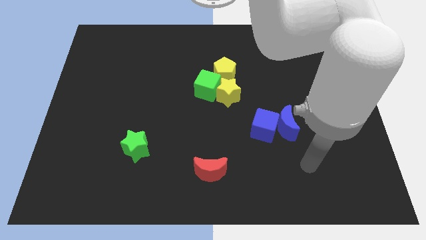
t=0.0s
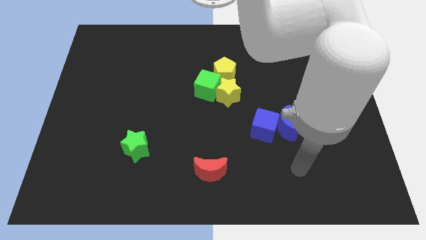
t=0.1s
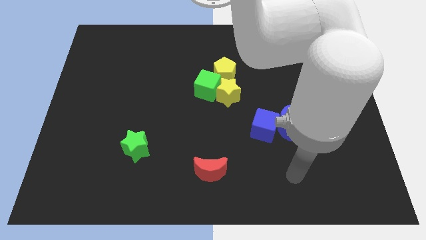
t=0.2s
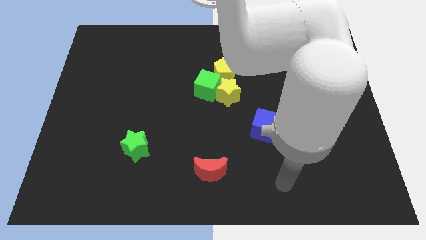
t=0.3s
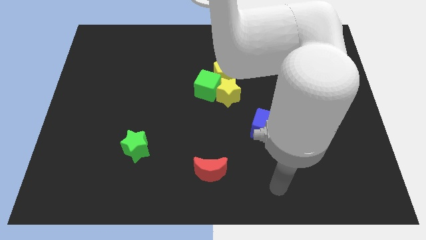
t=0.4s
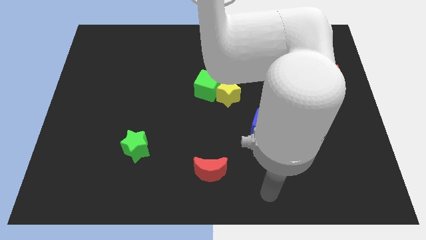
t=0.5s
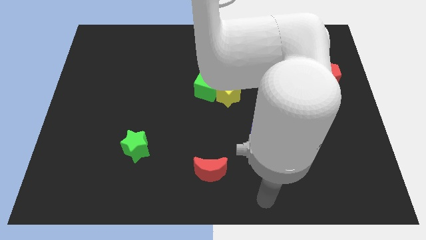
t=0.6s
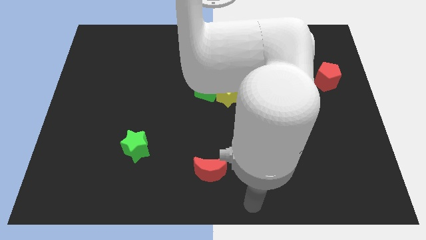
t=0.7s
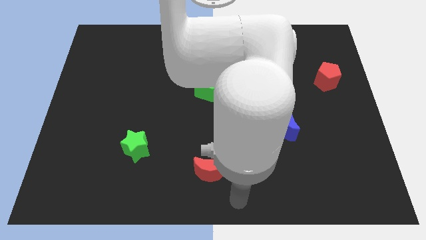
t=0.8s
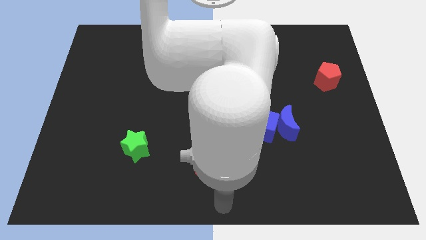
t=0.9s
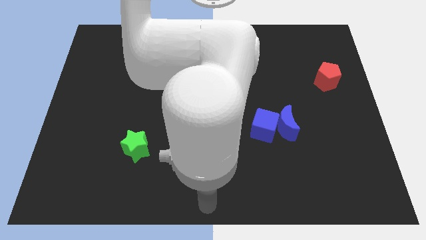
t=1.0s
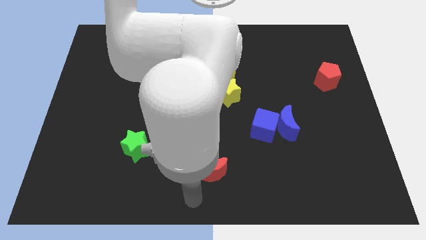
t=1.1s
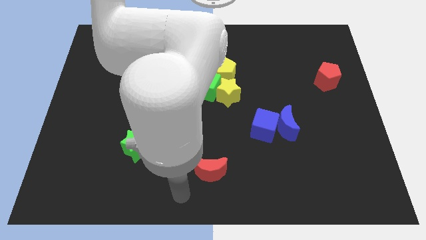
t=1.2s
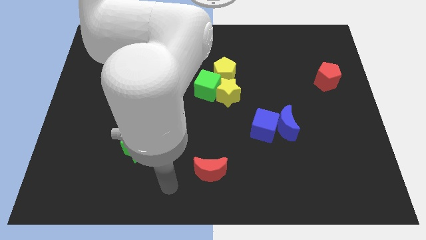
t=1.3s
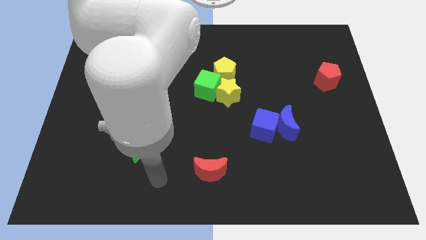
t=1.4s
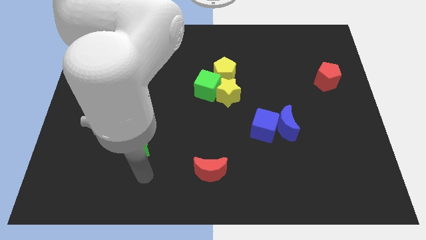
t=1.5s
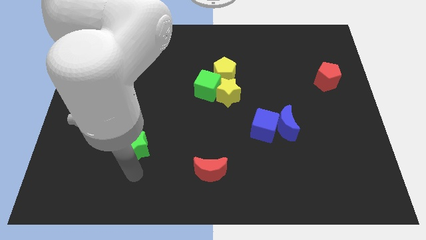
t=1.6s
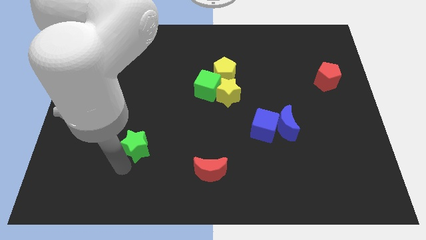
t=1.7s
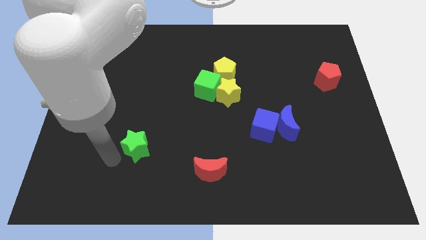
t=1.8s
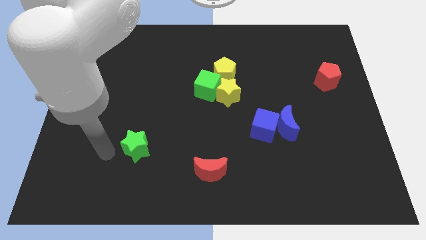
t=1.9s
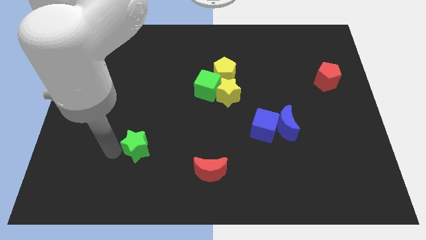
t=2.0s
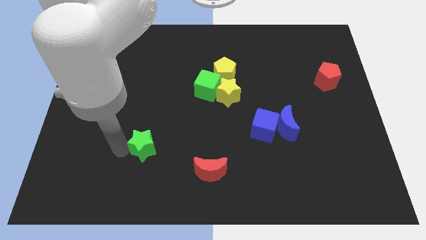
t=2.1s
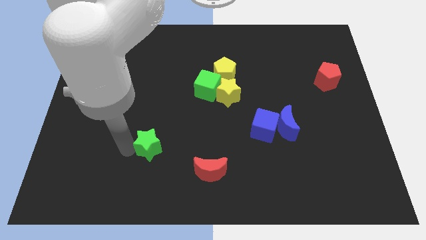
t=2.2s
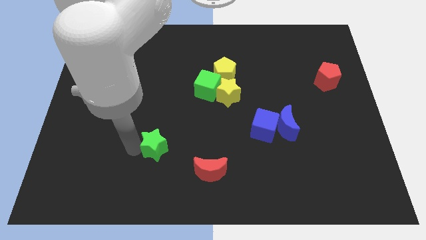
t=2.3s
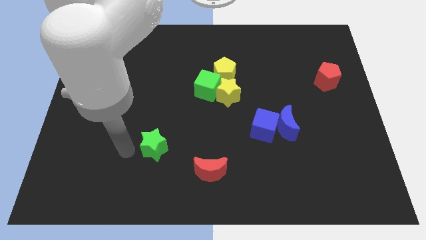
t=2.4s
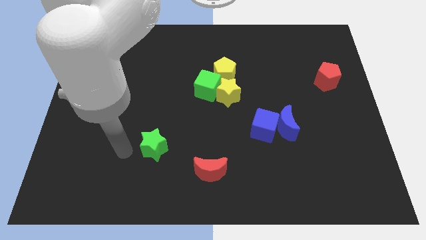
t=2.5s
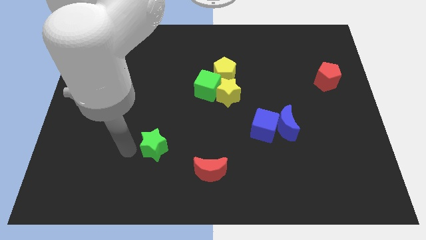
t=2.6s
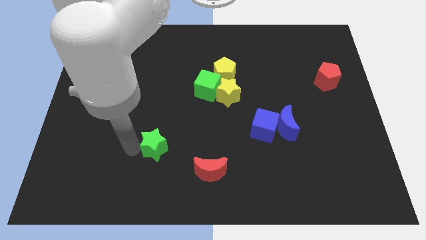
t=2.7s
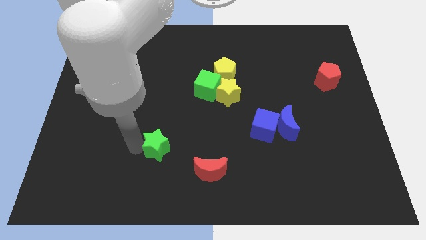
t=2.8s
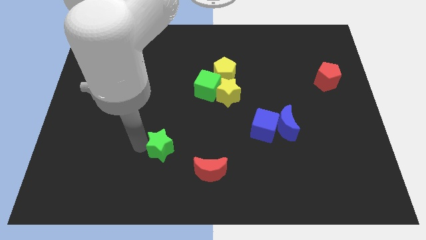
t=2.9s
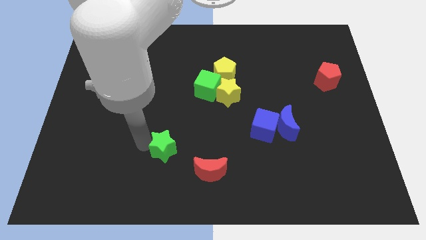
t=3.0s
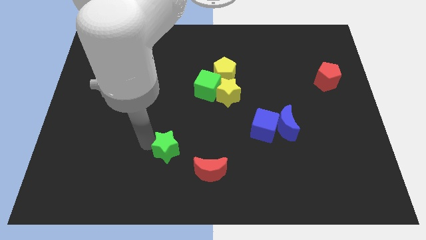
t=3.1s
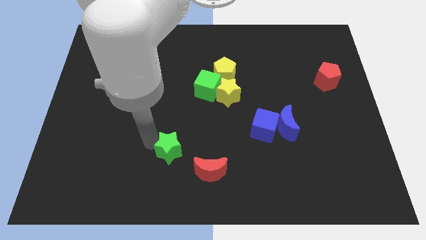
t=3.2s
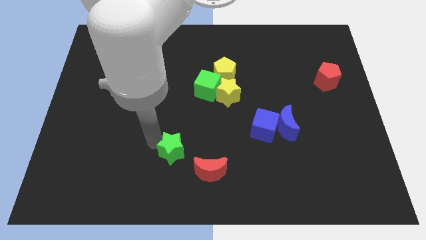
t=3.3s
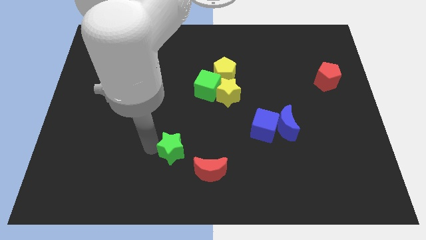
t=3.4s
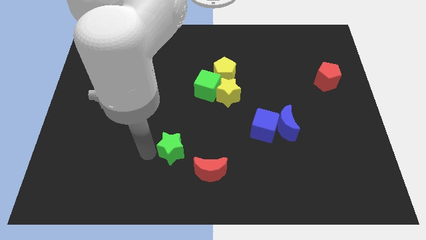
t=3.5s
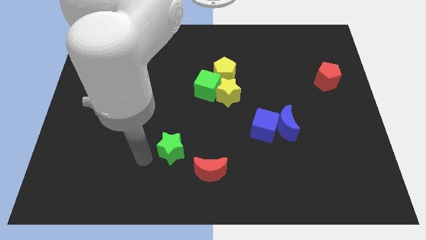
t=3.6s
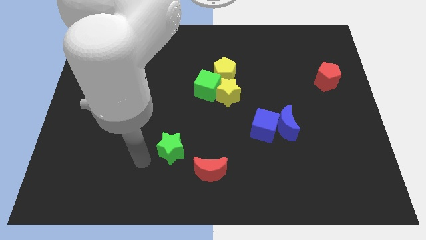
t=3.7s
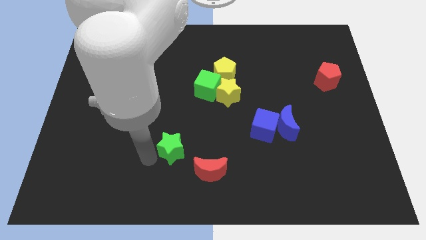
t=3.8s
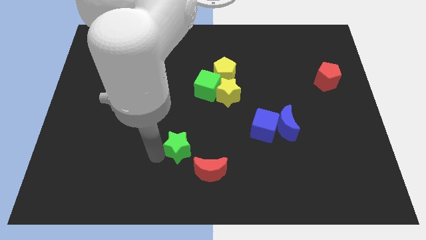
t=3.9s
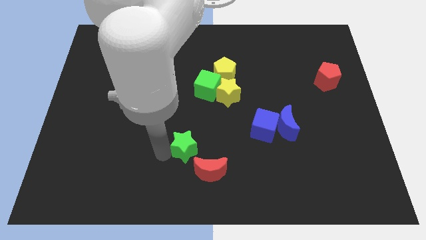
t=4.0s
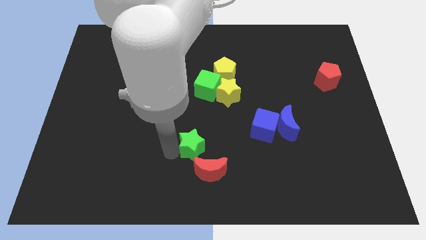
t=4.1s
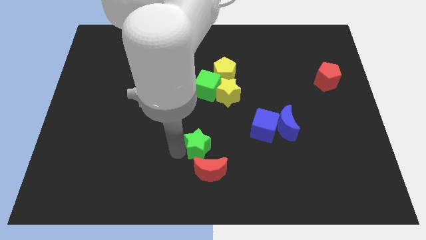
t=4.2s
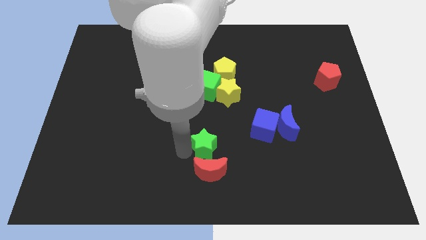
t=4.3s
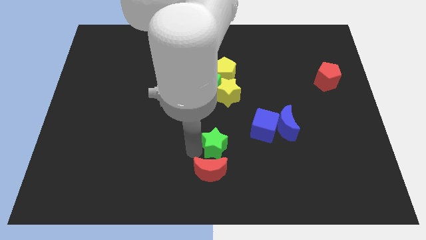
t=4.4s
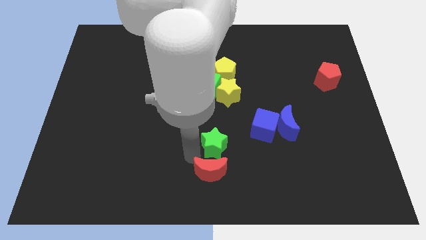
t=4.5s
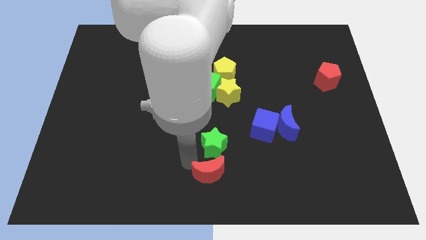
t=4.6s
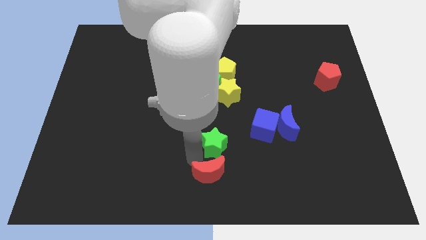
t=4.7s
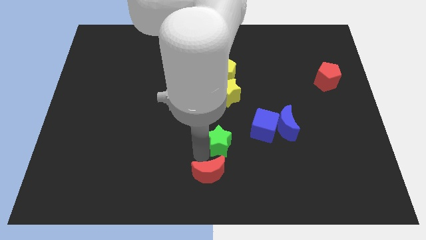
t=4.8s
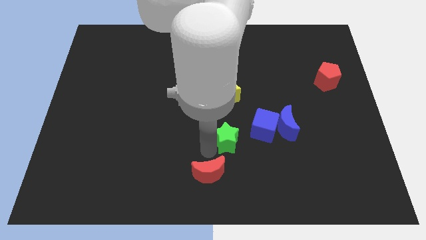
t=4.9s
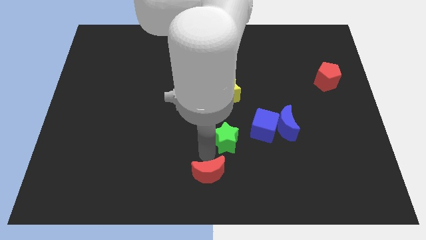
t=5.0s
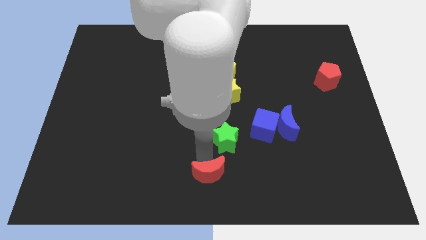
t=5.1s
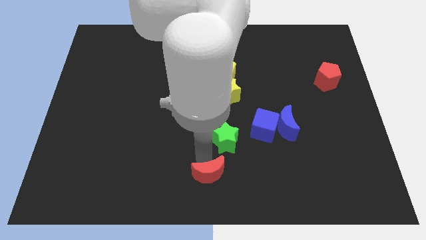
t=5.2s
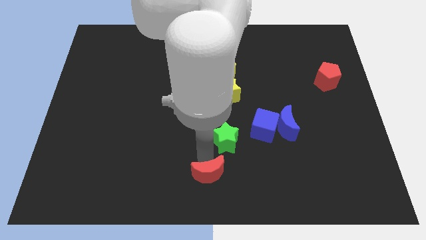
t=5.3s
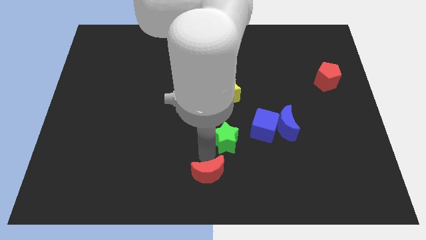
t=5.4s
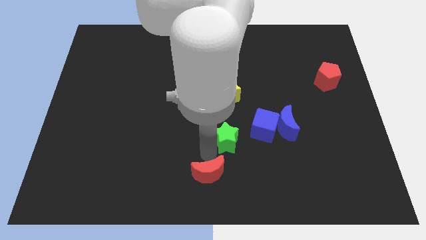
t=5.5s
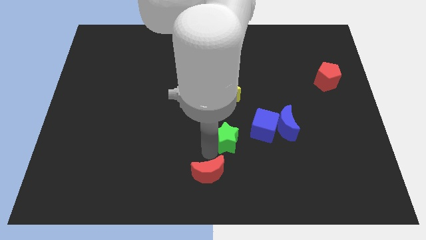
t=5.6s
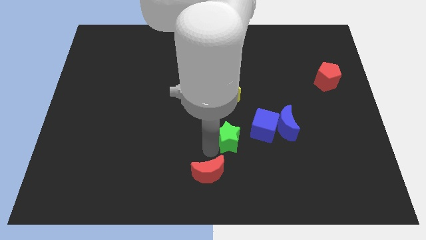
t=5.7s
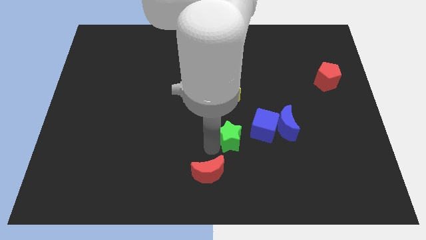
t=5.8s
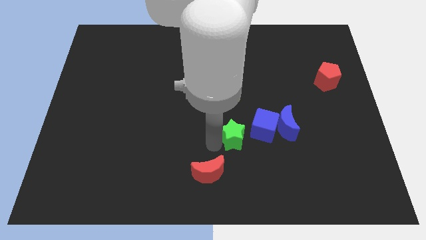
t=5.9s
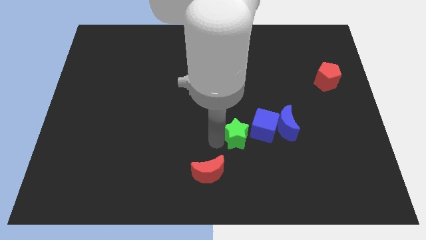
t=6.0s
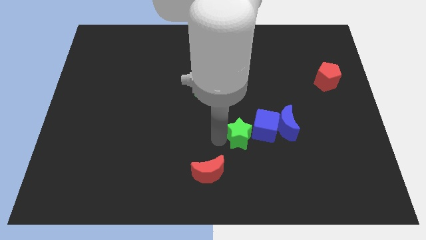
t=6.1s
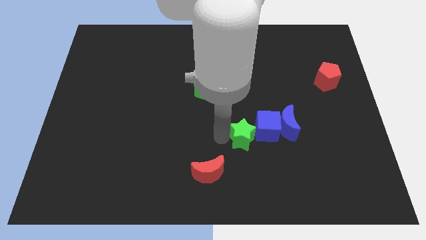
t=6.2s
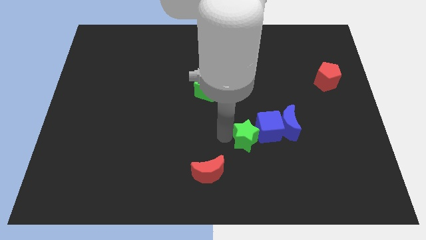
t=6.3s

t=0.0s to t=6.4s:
move the green star next to the blue cube

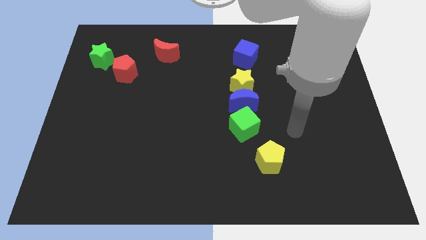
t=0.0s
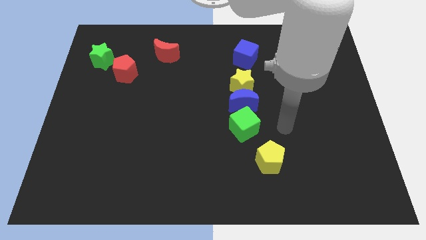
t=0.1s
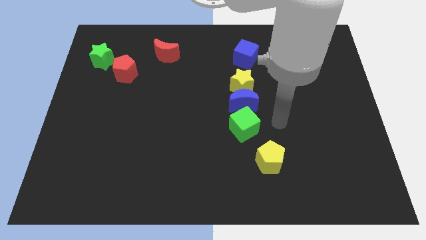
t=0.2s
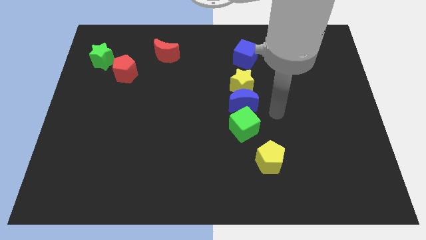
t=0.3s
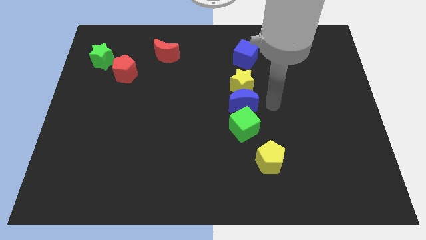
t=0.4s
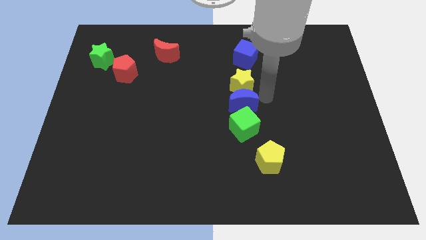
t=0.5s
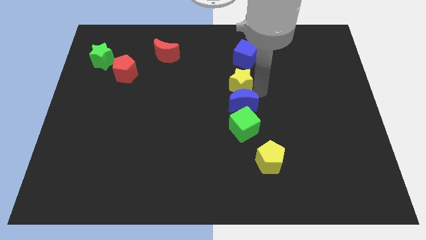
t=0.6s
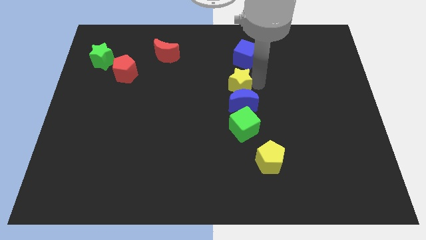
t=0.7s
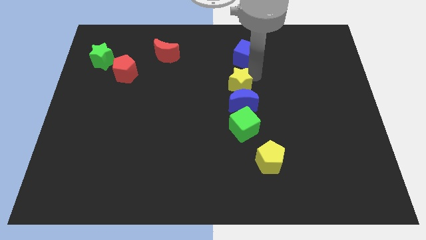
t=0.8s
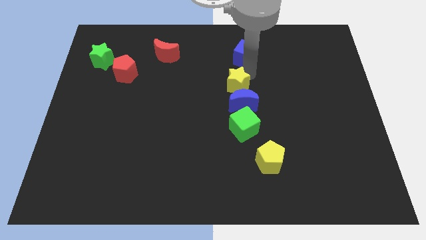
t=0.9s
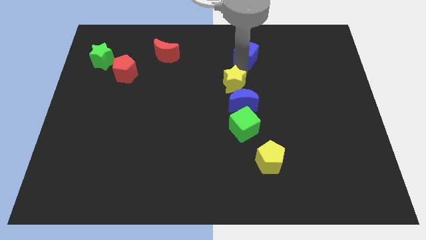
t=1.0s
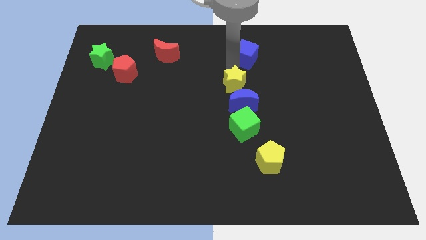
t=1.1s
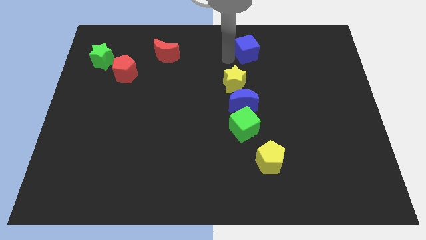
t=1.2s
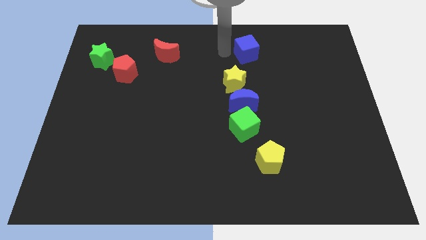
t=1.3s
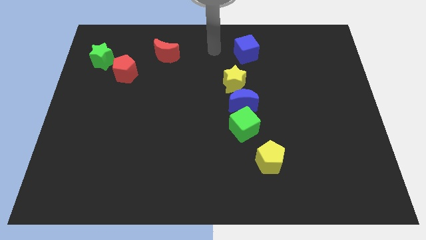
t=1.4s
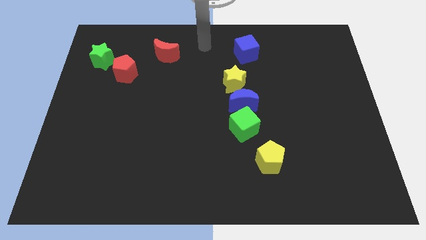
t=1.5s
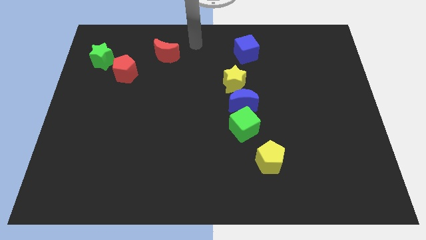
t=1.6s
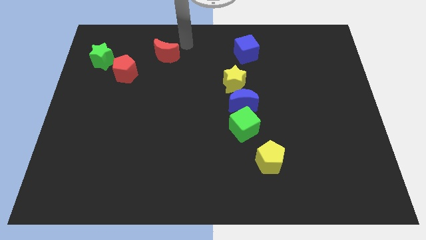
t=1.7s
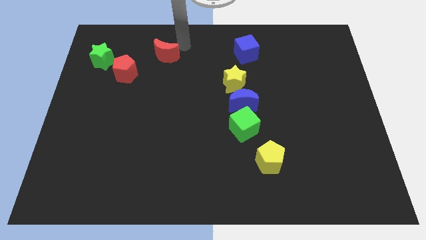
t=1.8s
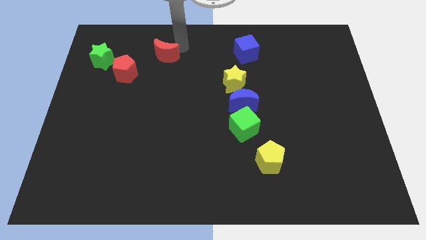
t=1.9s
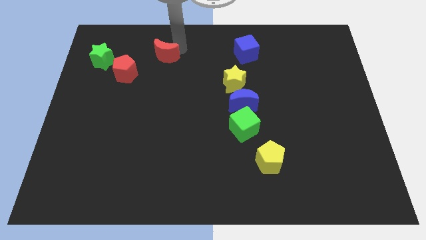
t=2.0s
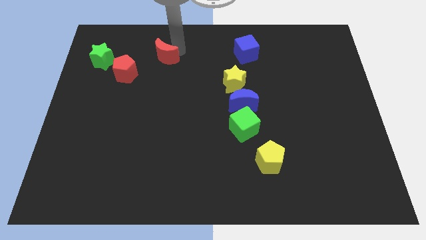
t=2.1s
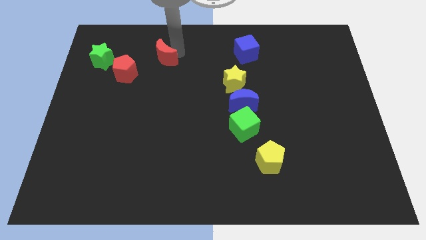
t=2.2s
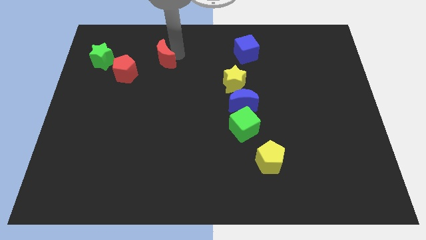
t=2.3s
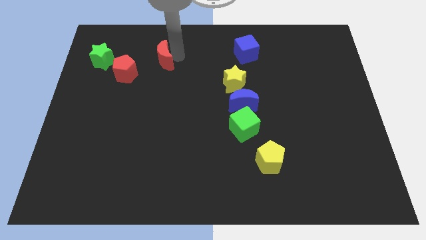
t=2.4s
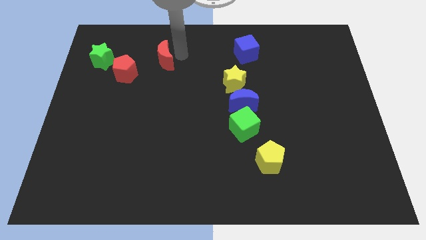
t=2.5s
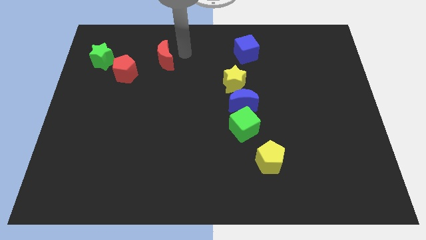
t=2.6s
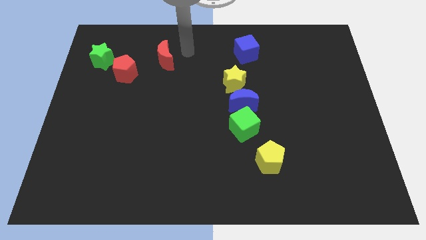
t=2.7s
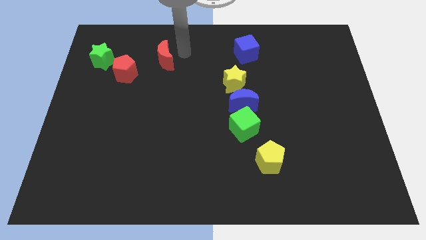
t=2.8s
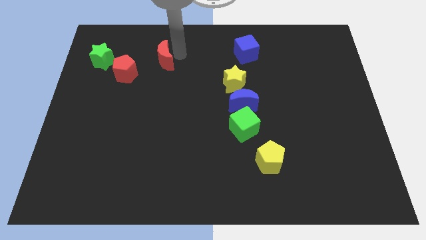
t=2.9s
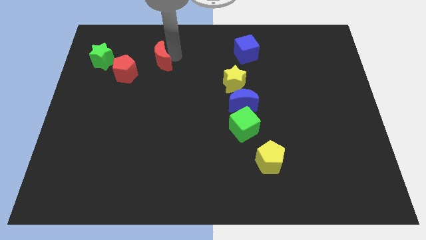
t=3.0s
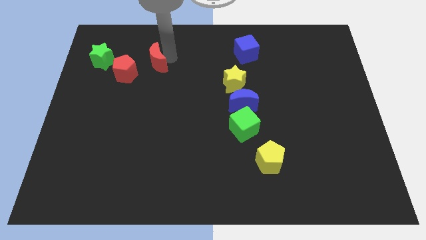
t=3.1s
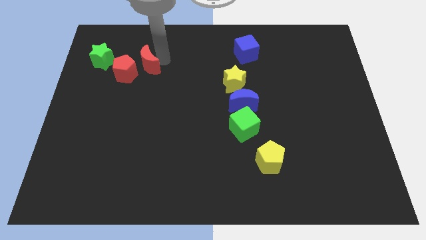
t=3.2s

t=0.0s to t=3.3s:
put the red moon towards the red pentagon
